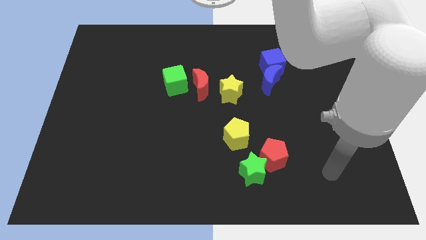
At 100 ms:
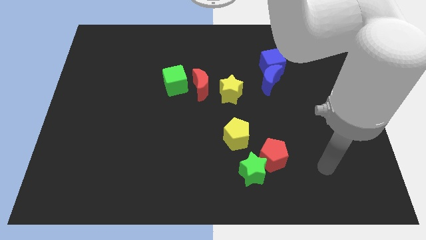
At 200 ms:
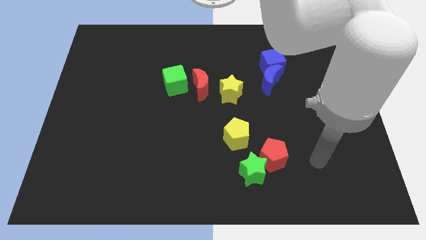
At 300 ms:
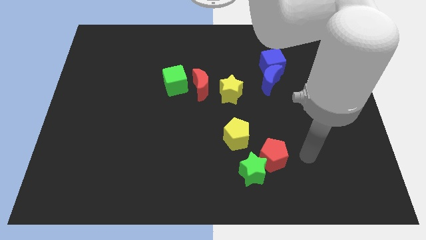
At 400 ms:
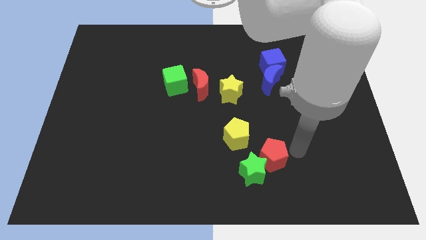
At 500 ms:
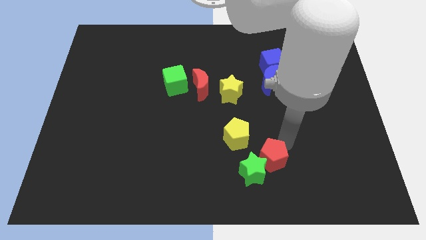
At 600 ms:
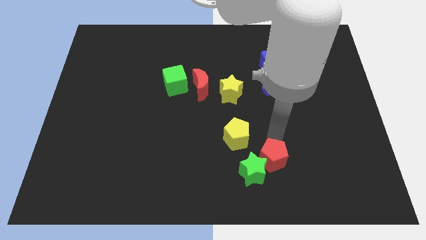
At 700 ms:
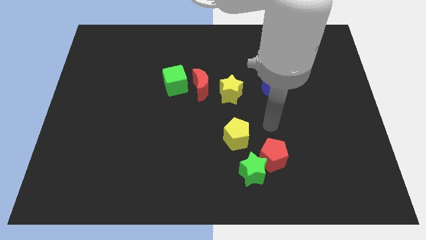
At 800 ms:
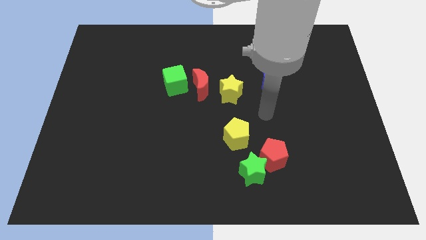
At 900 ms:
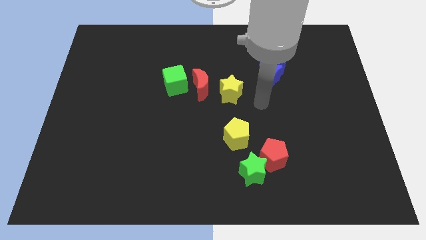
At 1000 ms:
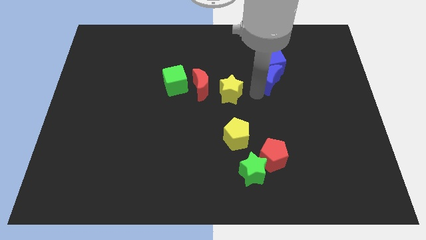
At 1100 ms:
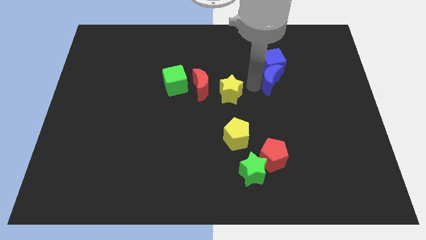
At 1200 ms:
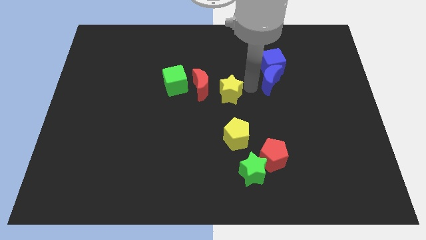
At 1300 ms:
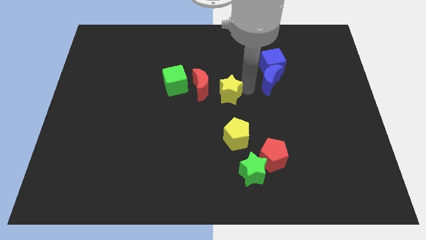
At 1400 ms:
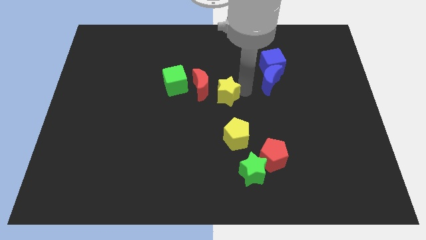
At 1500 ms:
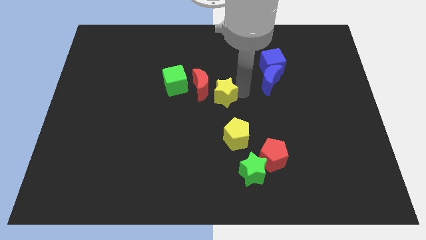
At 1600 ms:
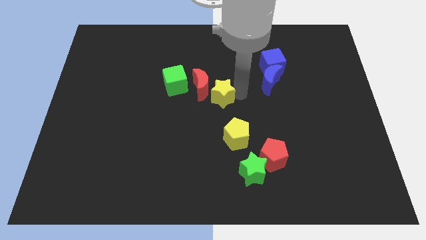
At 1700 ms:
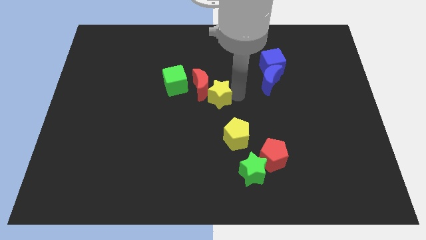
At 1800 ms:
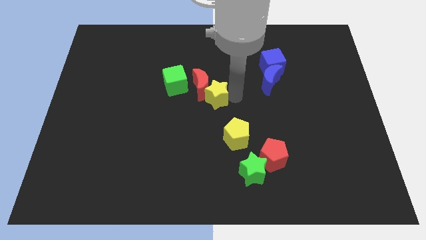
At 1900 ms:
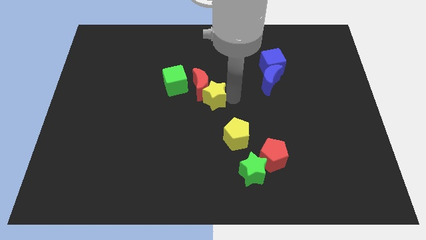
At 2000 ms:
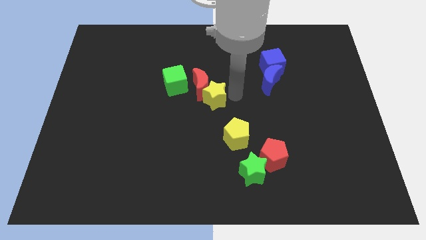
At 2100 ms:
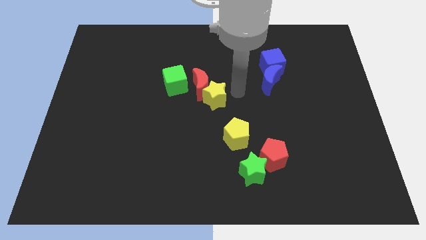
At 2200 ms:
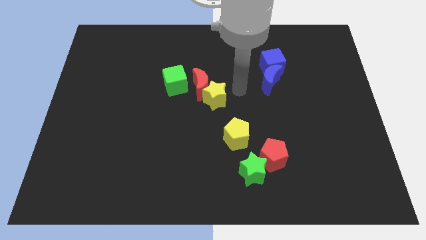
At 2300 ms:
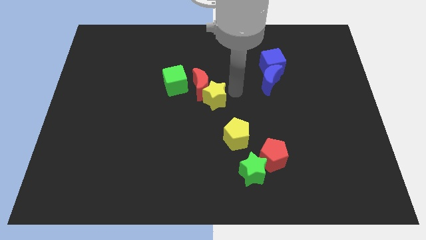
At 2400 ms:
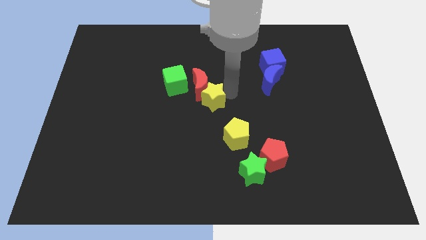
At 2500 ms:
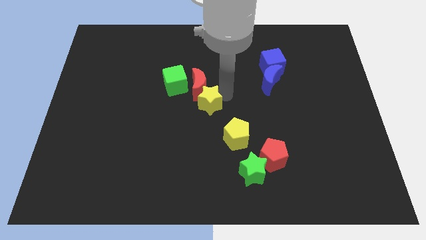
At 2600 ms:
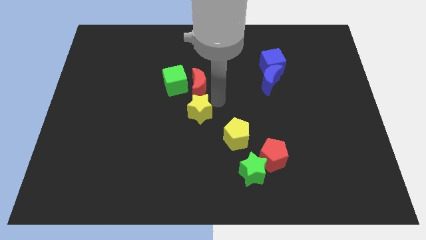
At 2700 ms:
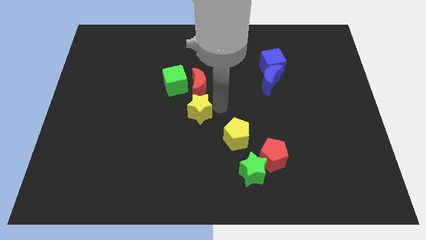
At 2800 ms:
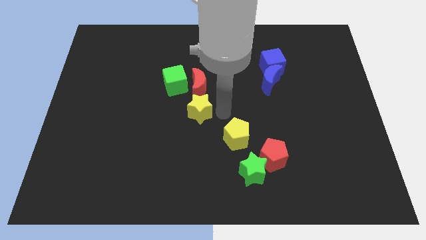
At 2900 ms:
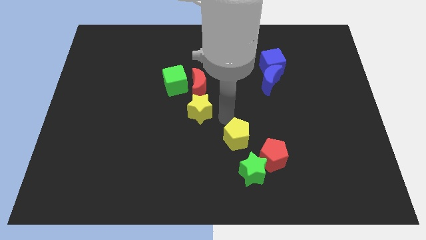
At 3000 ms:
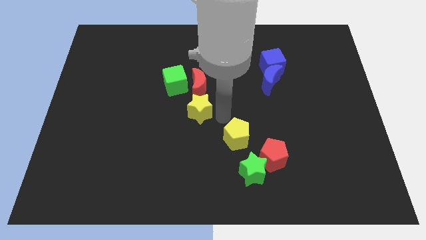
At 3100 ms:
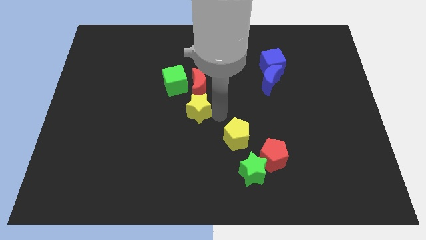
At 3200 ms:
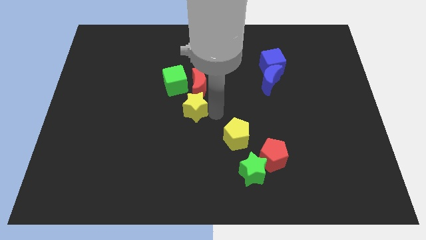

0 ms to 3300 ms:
slide the yellow star slightly left

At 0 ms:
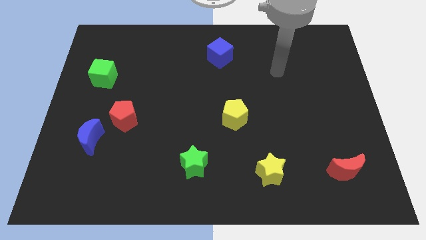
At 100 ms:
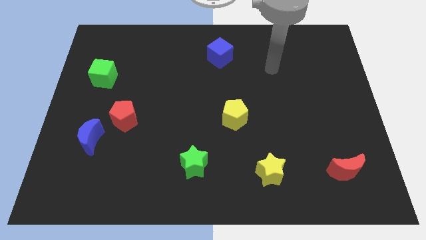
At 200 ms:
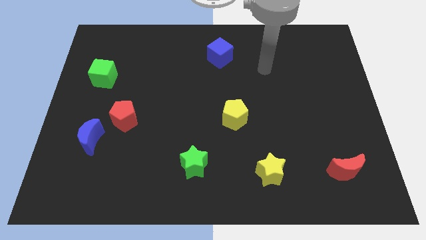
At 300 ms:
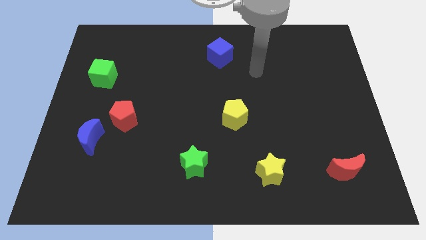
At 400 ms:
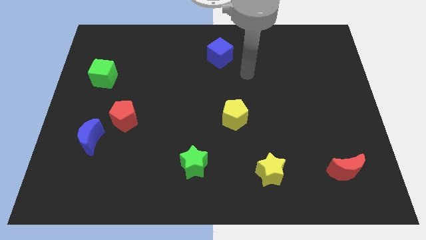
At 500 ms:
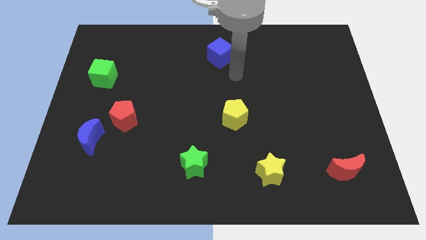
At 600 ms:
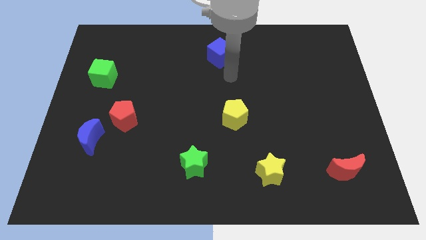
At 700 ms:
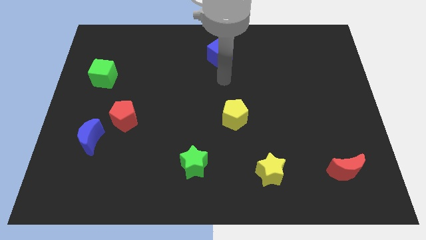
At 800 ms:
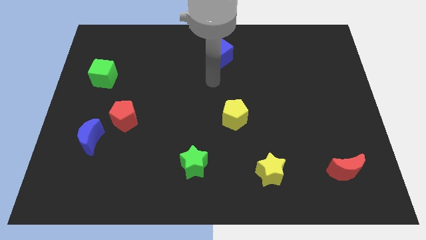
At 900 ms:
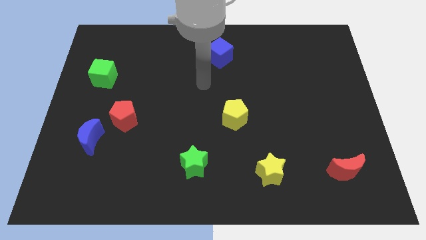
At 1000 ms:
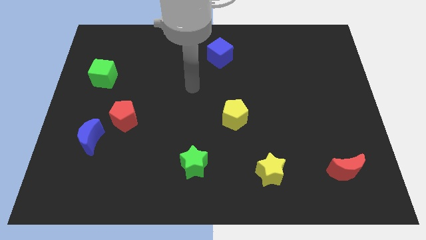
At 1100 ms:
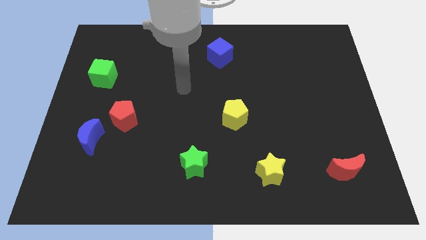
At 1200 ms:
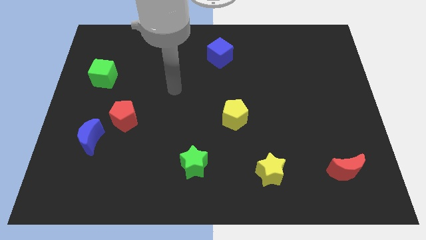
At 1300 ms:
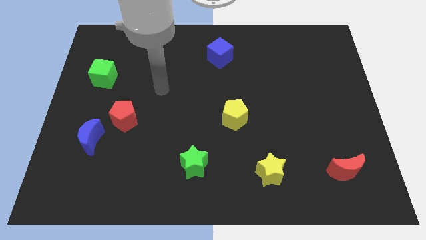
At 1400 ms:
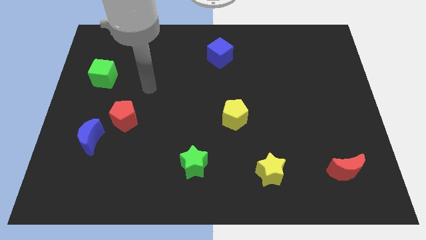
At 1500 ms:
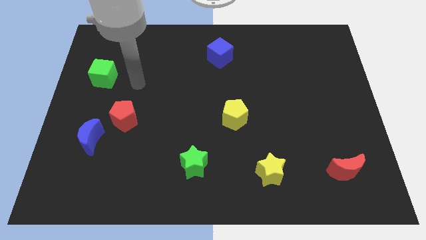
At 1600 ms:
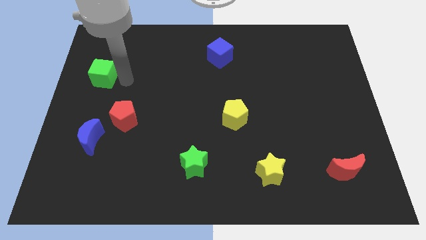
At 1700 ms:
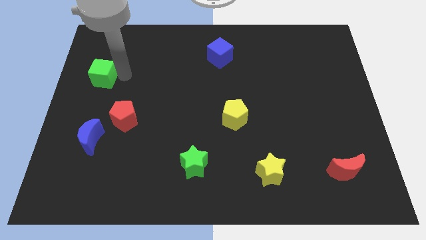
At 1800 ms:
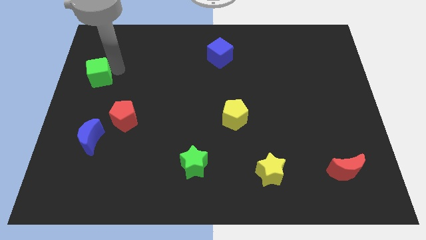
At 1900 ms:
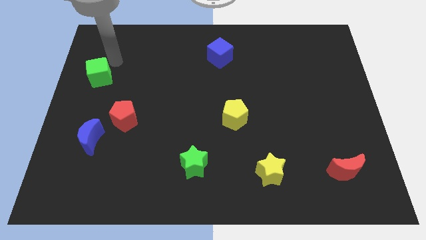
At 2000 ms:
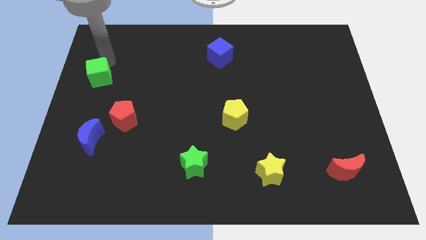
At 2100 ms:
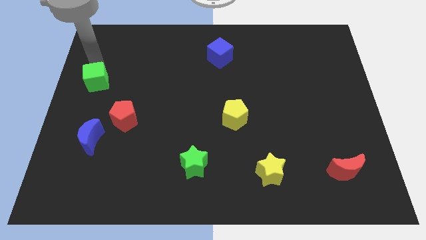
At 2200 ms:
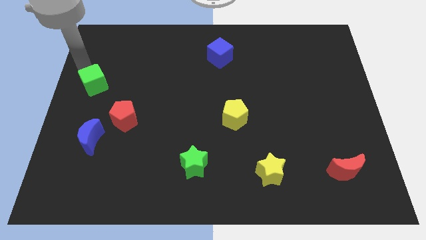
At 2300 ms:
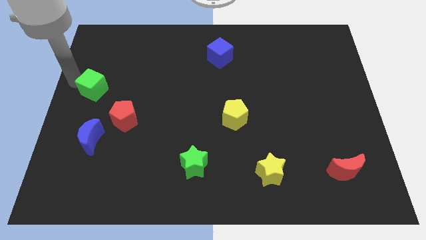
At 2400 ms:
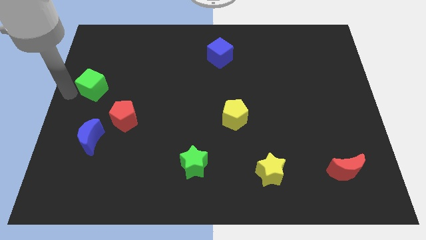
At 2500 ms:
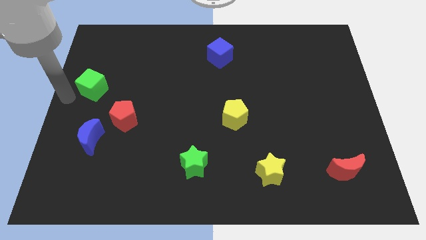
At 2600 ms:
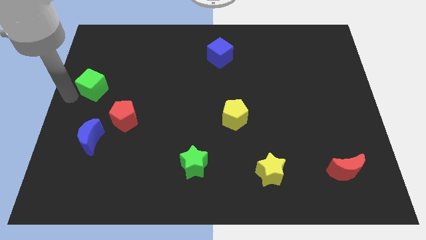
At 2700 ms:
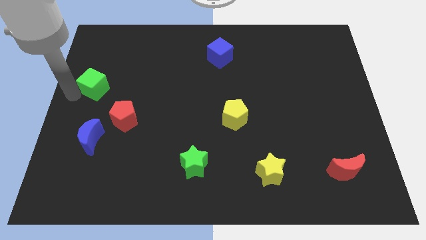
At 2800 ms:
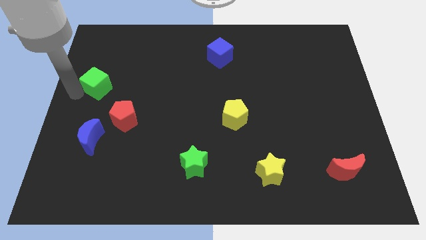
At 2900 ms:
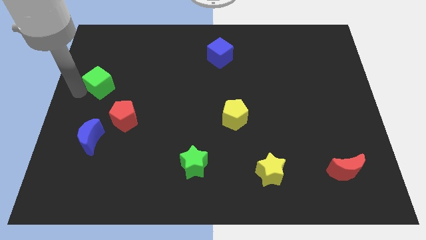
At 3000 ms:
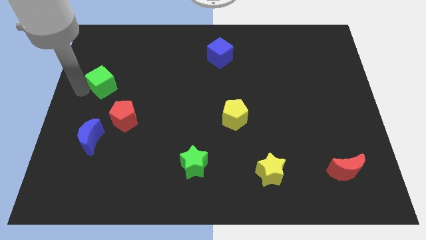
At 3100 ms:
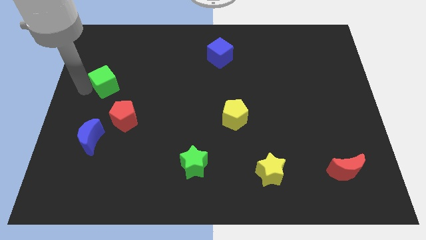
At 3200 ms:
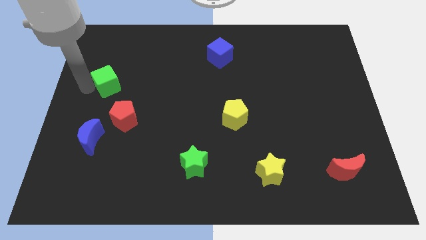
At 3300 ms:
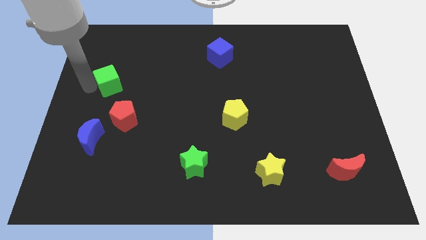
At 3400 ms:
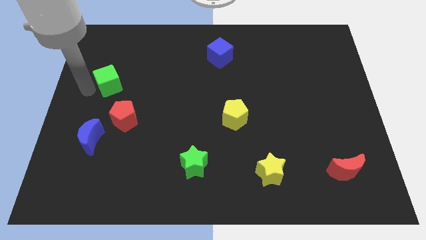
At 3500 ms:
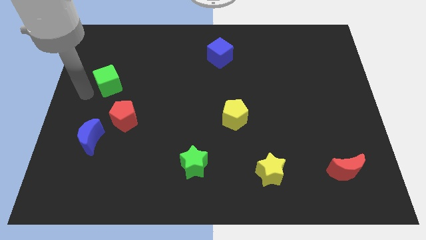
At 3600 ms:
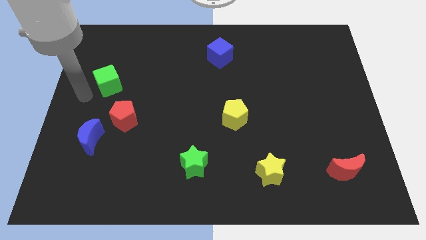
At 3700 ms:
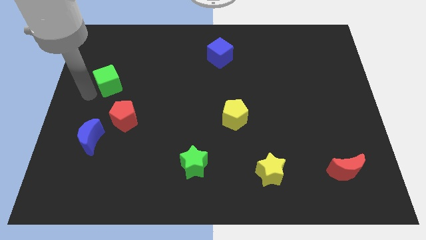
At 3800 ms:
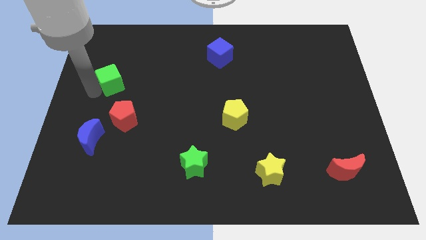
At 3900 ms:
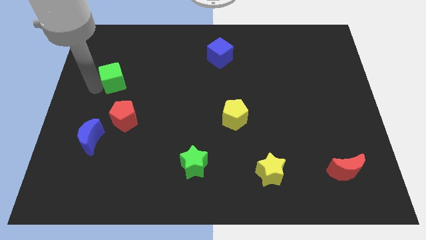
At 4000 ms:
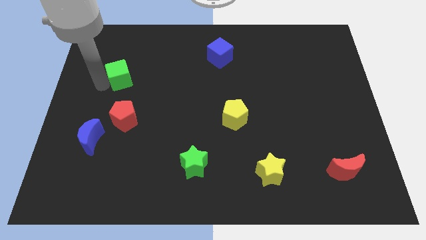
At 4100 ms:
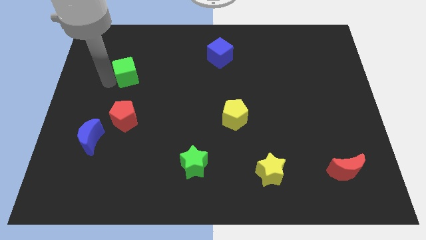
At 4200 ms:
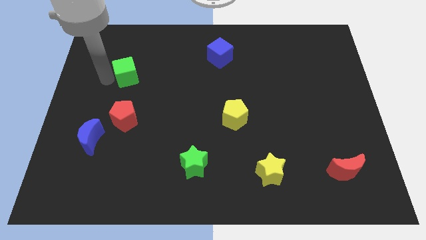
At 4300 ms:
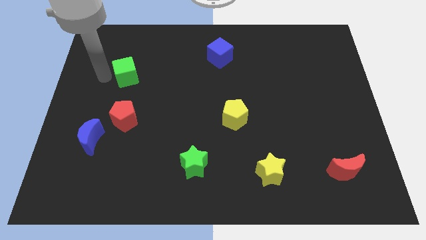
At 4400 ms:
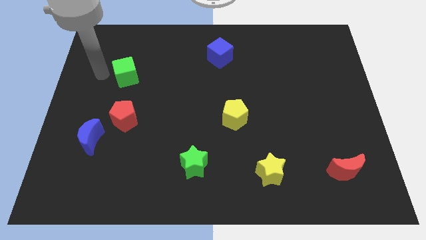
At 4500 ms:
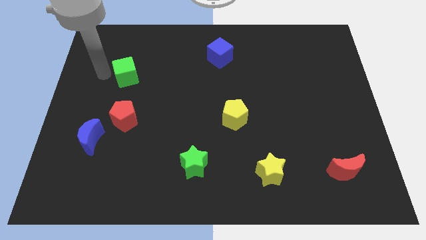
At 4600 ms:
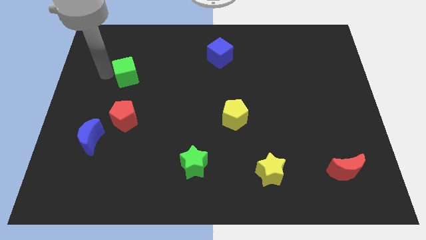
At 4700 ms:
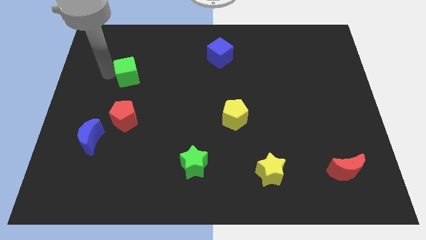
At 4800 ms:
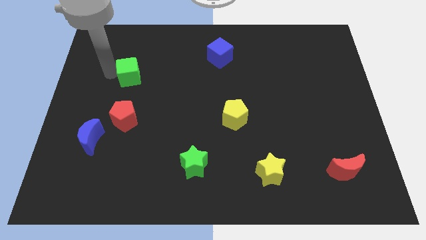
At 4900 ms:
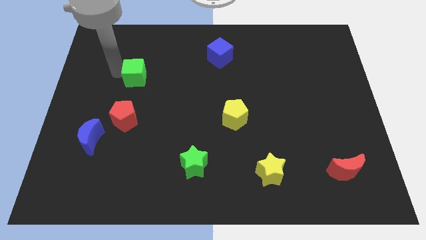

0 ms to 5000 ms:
slide the green cube to the right a bit

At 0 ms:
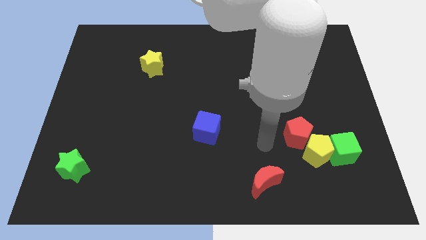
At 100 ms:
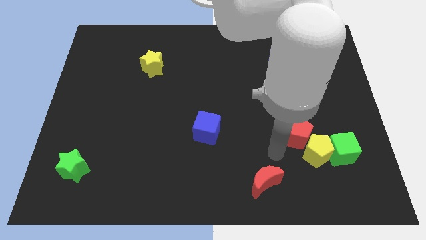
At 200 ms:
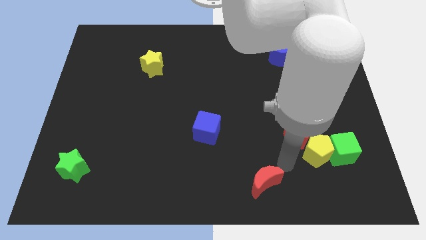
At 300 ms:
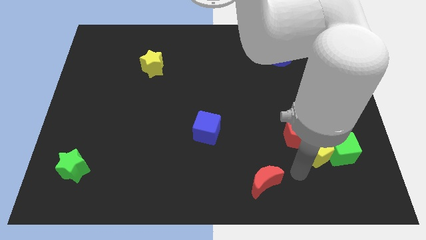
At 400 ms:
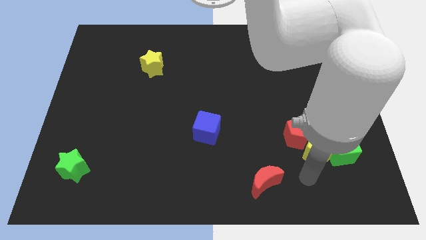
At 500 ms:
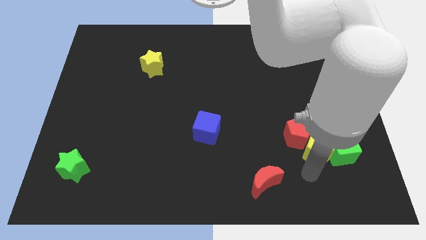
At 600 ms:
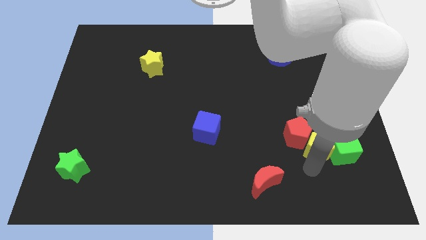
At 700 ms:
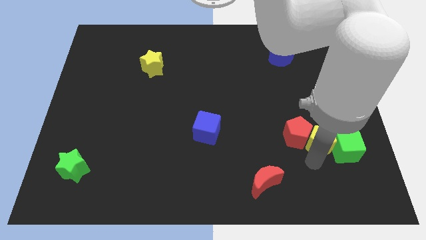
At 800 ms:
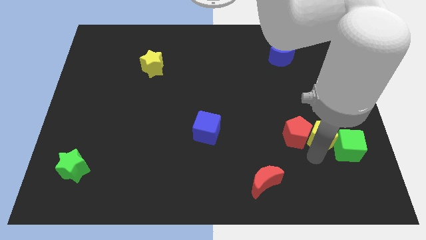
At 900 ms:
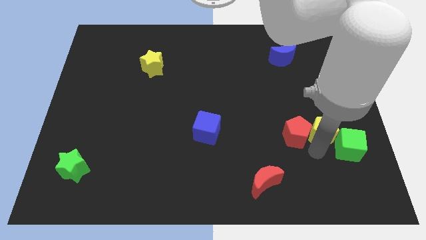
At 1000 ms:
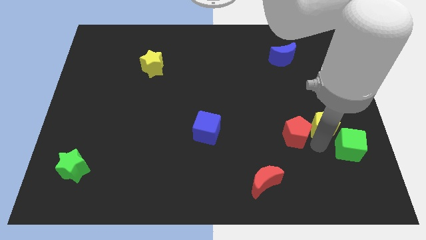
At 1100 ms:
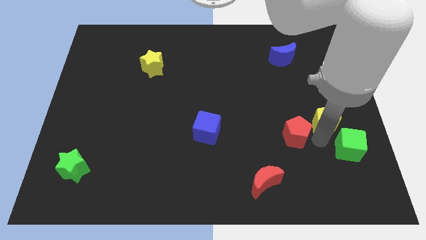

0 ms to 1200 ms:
move the yellow pentagon upwards somewhat
